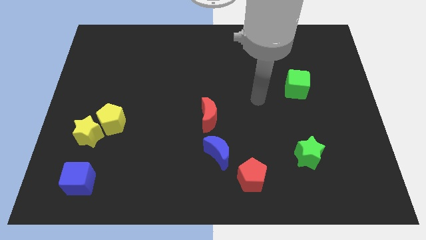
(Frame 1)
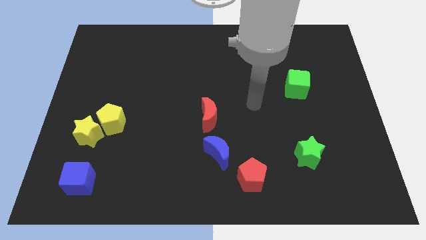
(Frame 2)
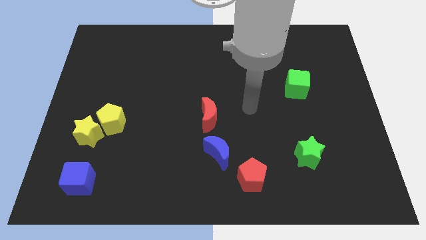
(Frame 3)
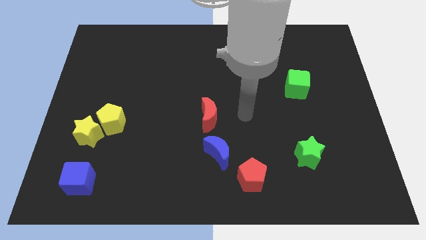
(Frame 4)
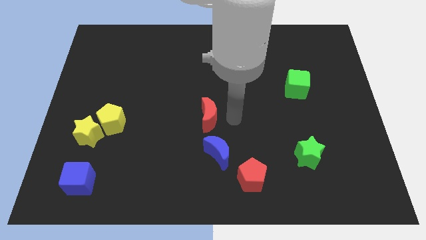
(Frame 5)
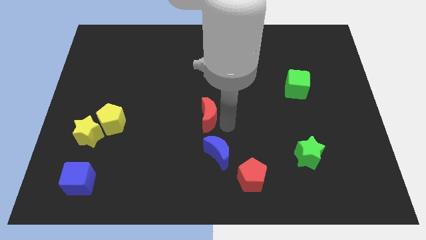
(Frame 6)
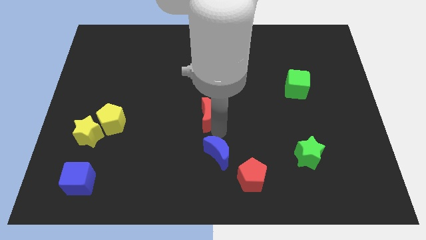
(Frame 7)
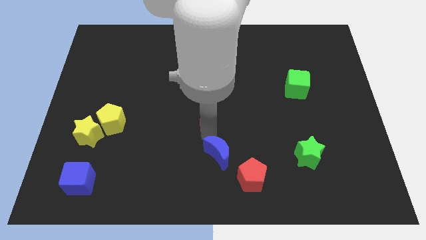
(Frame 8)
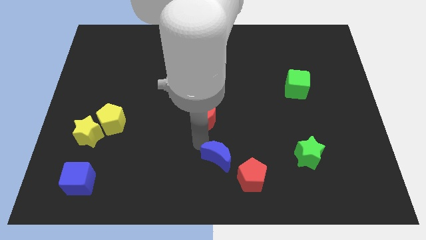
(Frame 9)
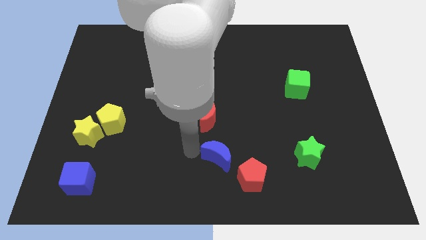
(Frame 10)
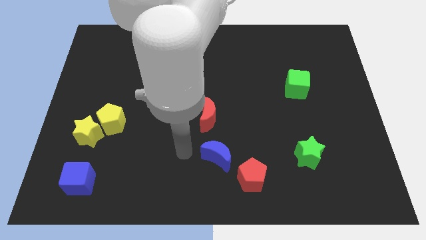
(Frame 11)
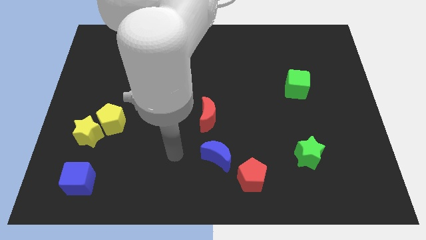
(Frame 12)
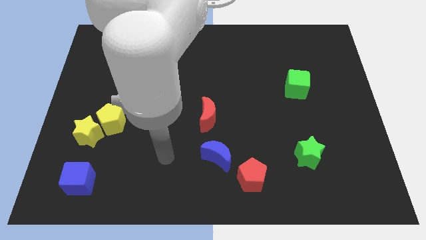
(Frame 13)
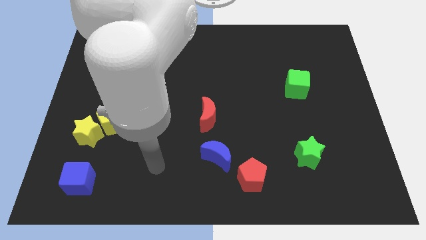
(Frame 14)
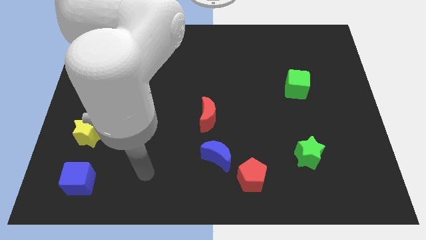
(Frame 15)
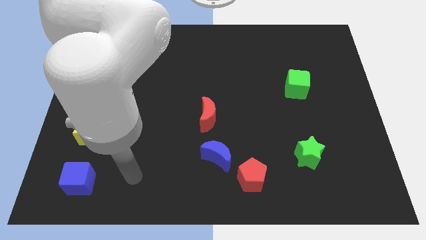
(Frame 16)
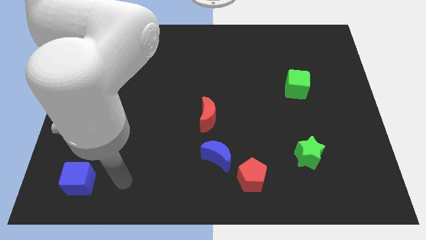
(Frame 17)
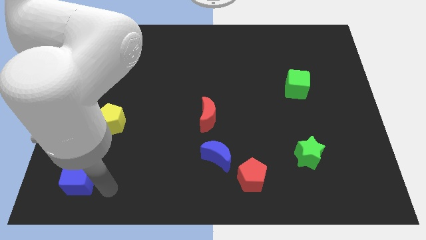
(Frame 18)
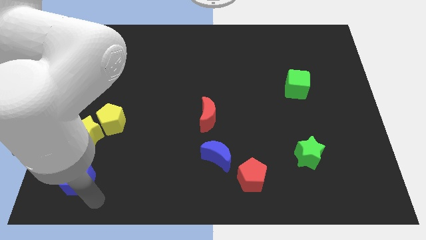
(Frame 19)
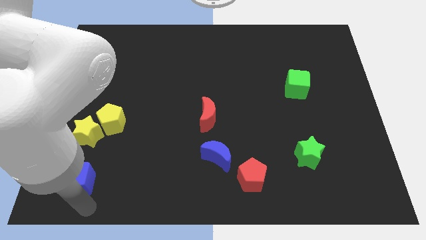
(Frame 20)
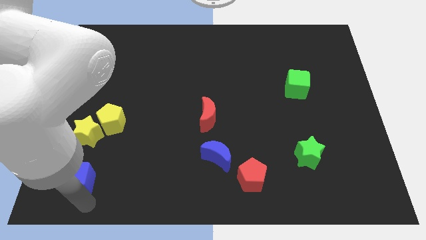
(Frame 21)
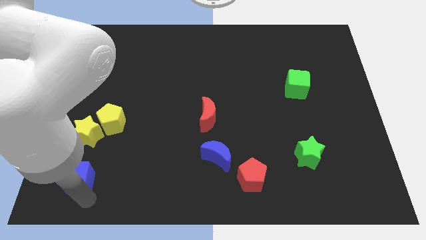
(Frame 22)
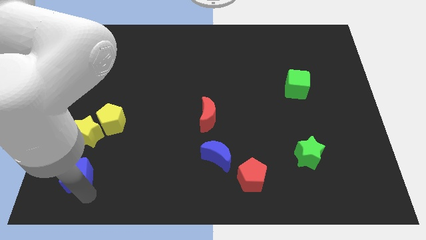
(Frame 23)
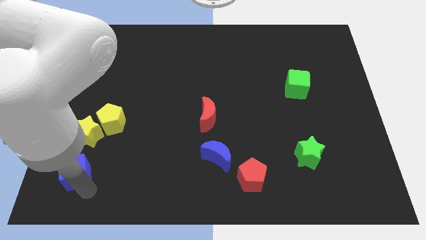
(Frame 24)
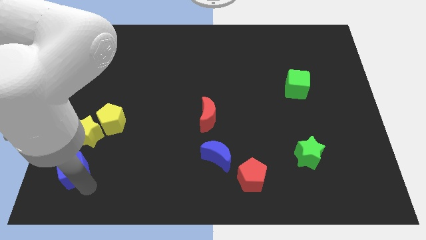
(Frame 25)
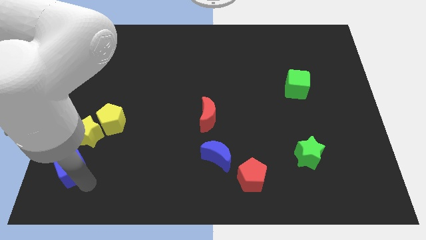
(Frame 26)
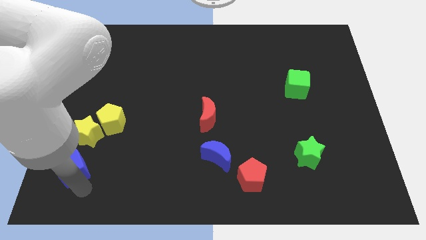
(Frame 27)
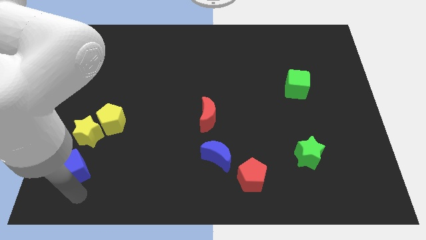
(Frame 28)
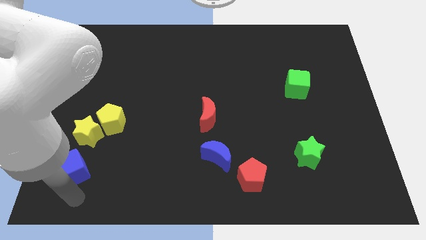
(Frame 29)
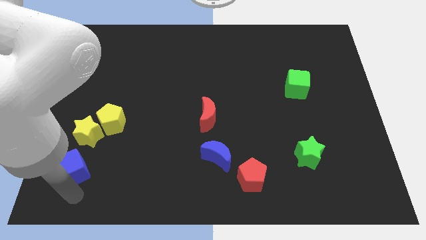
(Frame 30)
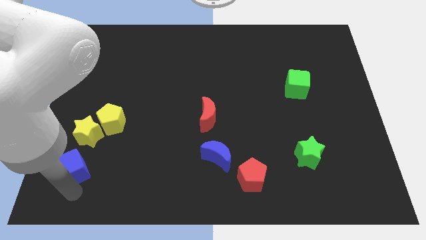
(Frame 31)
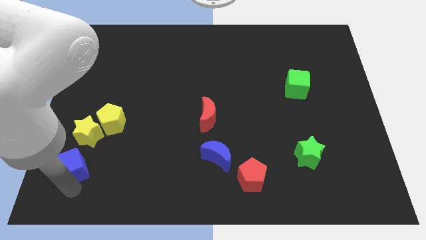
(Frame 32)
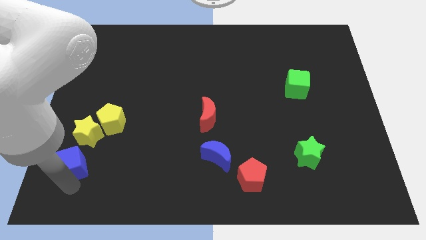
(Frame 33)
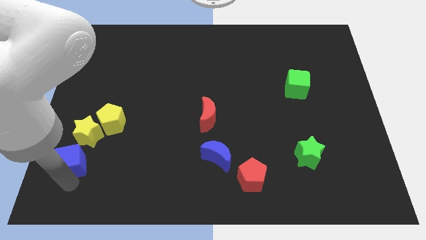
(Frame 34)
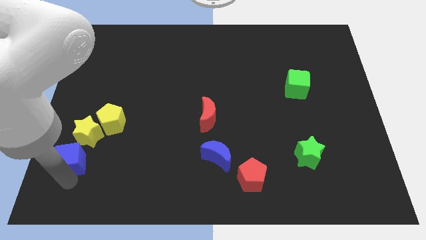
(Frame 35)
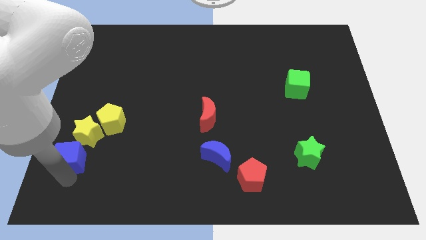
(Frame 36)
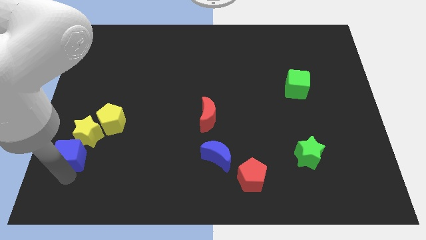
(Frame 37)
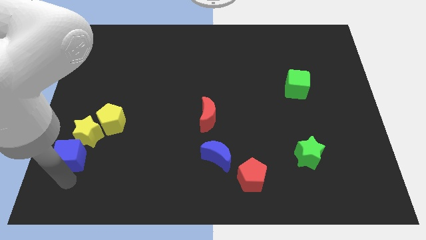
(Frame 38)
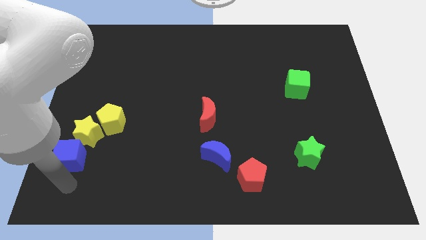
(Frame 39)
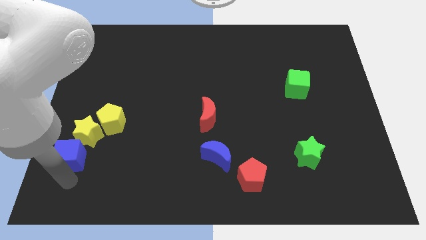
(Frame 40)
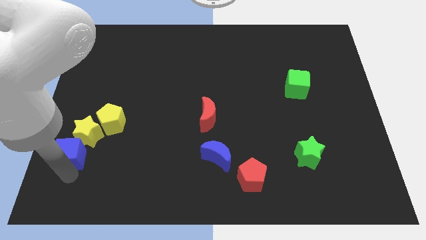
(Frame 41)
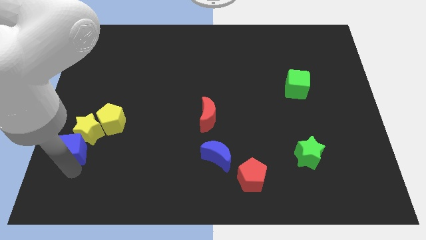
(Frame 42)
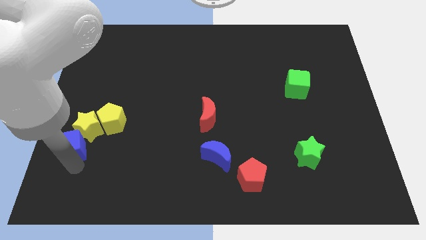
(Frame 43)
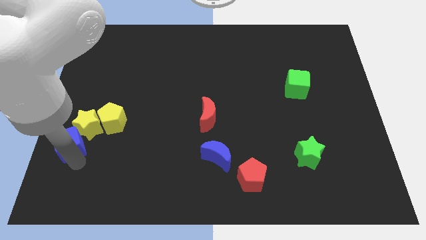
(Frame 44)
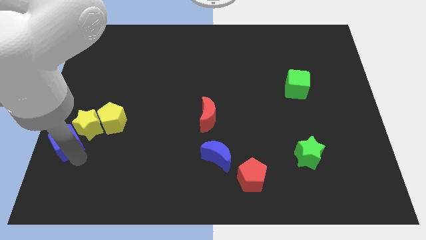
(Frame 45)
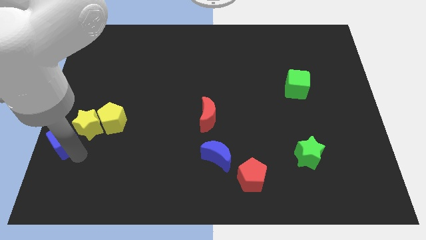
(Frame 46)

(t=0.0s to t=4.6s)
push the blue cube to the left side of the board

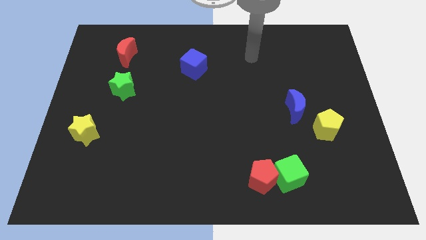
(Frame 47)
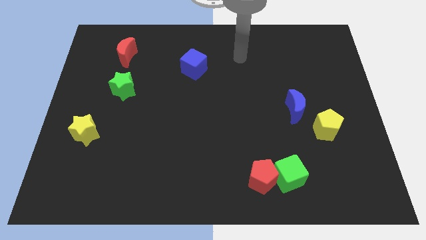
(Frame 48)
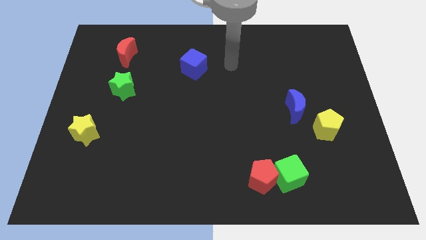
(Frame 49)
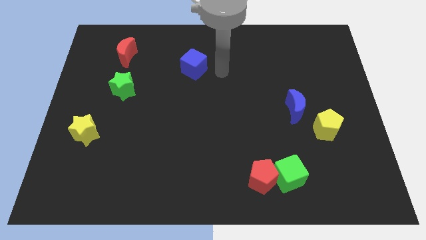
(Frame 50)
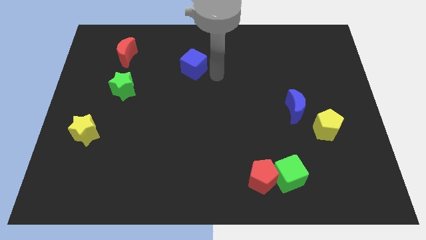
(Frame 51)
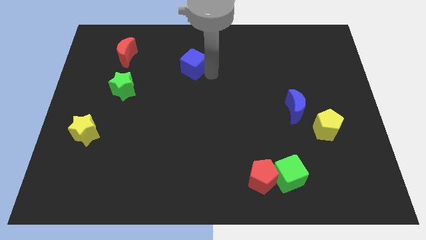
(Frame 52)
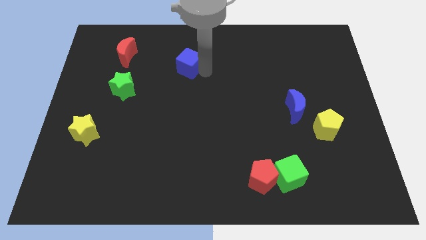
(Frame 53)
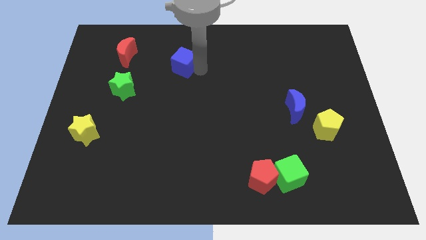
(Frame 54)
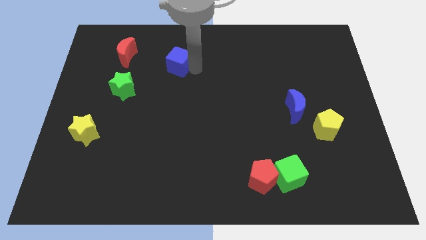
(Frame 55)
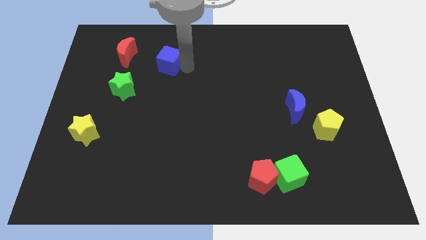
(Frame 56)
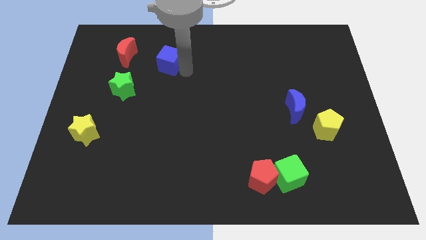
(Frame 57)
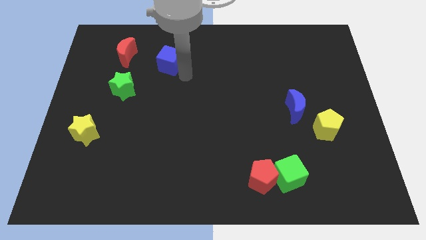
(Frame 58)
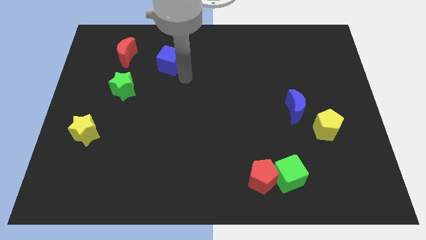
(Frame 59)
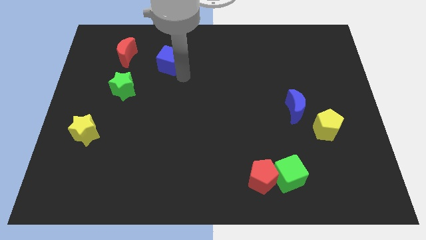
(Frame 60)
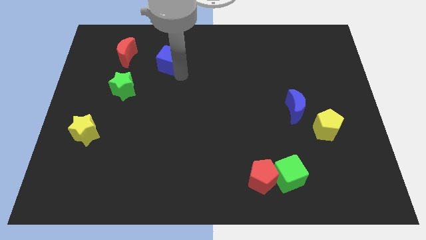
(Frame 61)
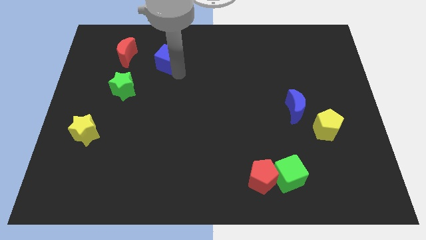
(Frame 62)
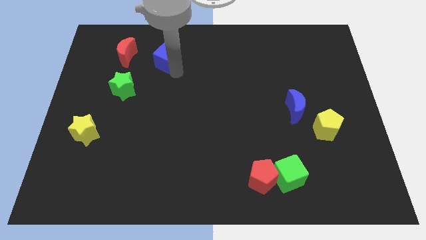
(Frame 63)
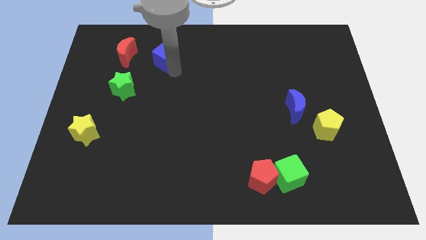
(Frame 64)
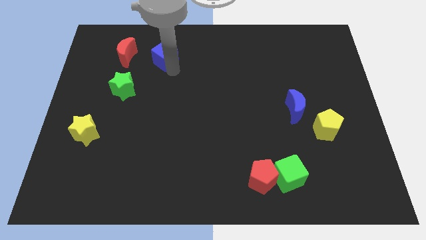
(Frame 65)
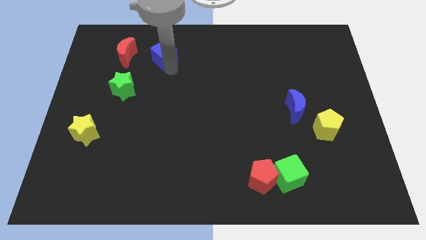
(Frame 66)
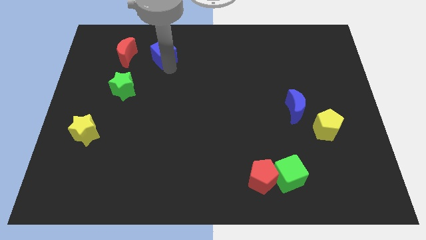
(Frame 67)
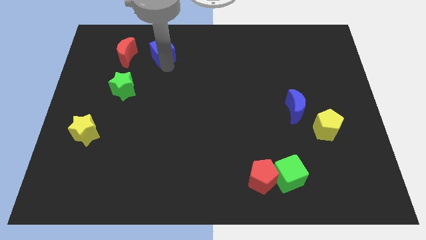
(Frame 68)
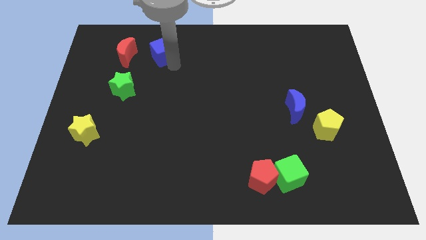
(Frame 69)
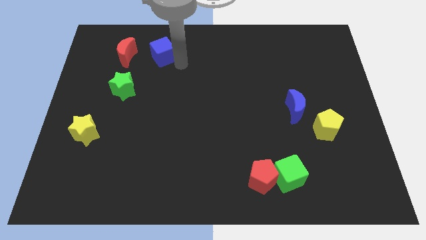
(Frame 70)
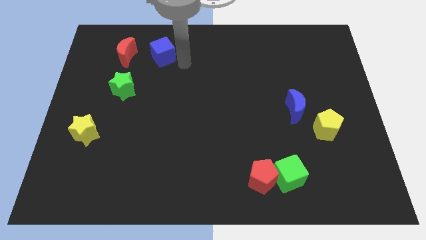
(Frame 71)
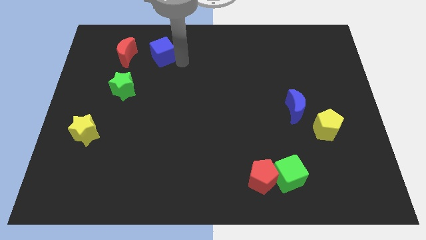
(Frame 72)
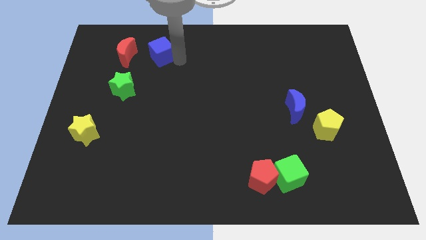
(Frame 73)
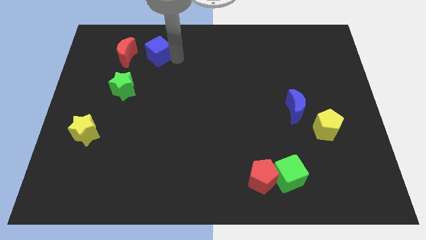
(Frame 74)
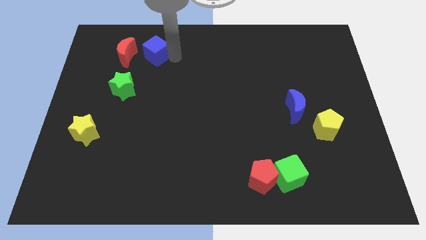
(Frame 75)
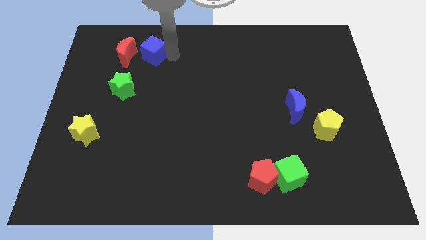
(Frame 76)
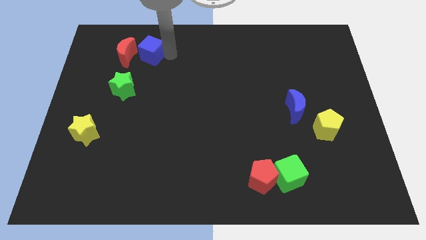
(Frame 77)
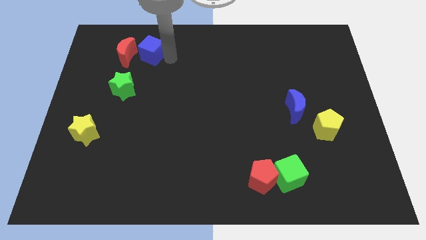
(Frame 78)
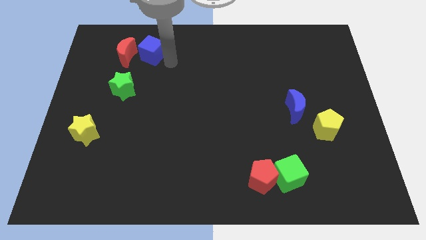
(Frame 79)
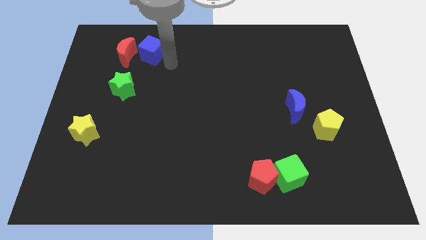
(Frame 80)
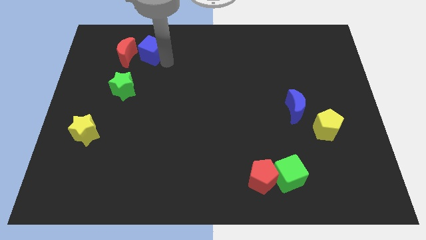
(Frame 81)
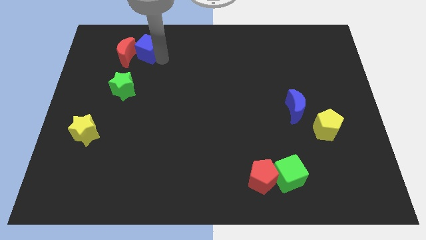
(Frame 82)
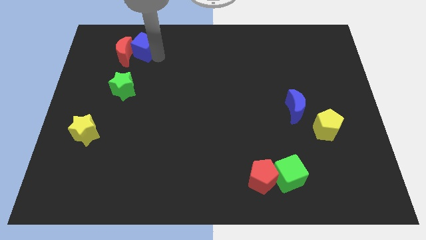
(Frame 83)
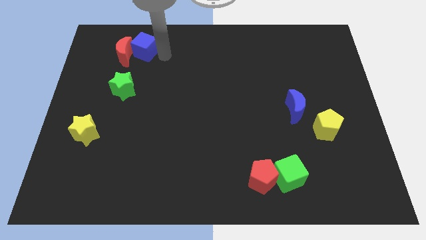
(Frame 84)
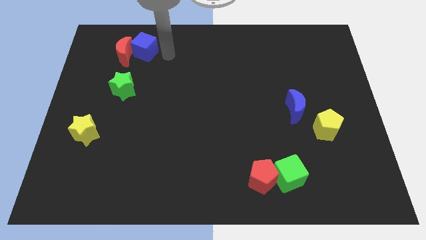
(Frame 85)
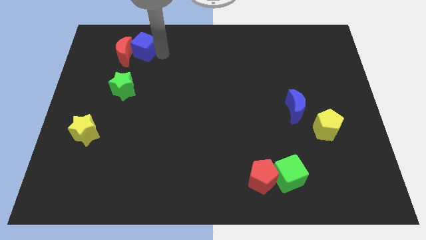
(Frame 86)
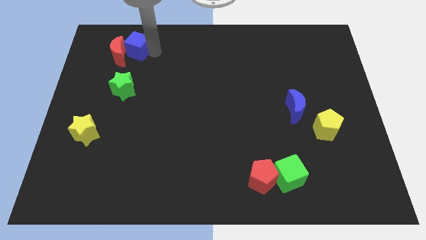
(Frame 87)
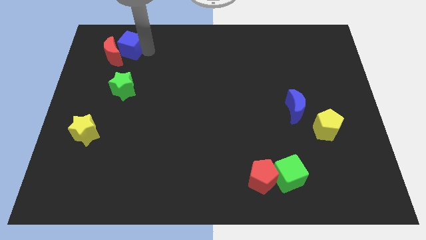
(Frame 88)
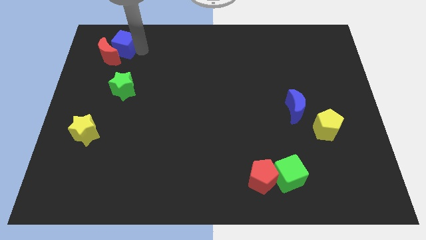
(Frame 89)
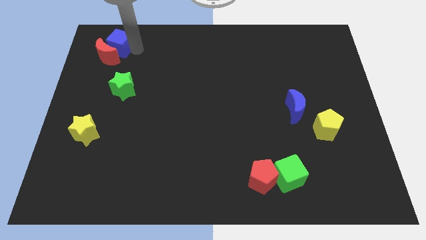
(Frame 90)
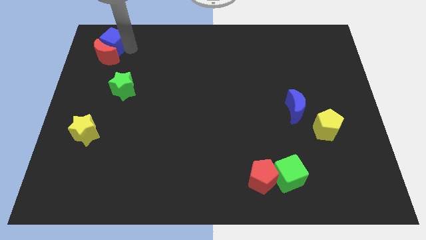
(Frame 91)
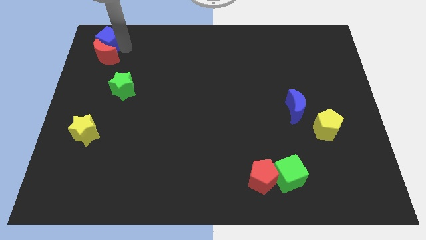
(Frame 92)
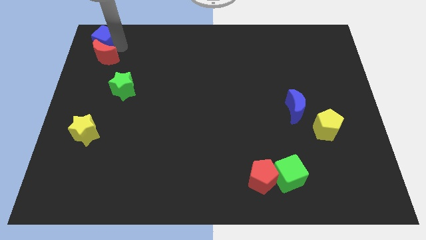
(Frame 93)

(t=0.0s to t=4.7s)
slide the blue cube to the top left
